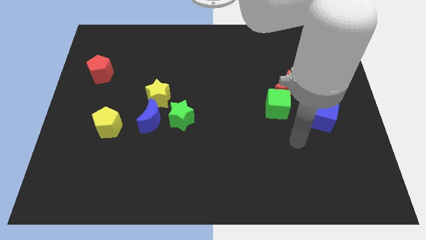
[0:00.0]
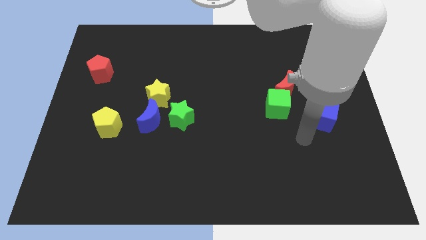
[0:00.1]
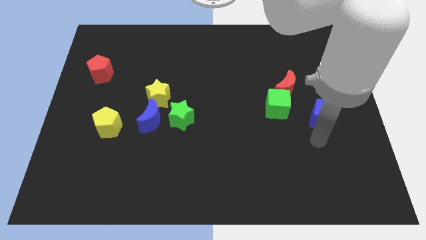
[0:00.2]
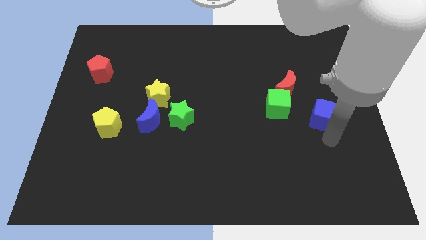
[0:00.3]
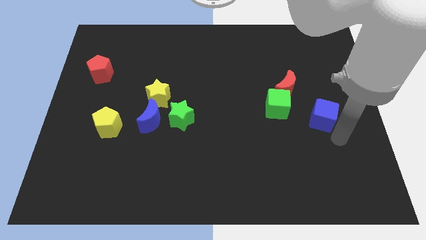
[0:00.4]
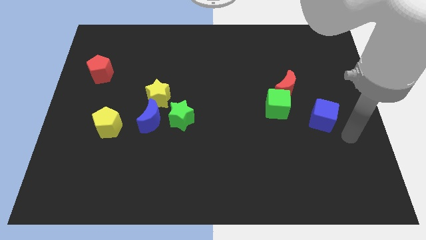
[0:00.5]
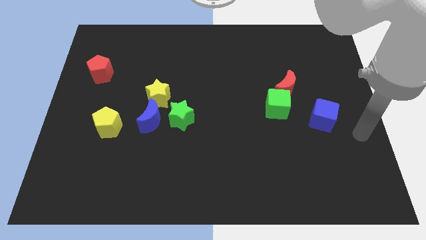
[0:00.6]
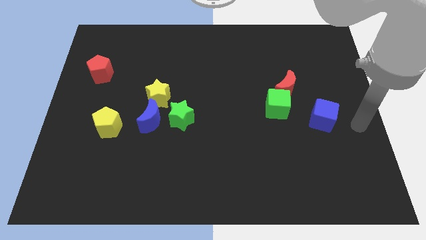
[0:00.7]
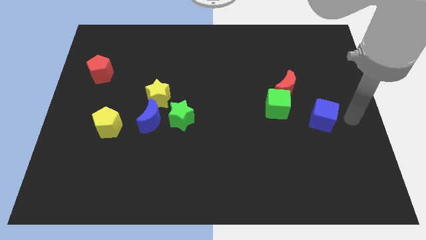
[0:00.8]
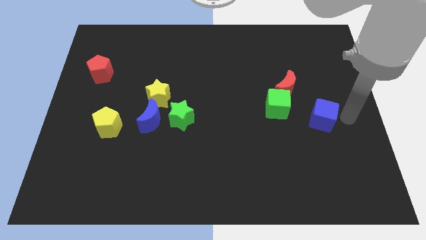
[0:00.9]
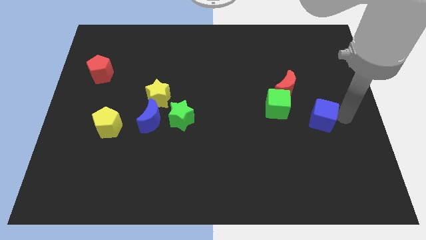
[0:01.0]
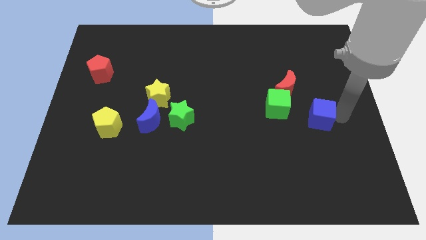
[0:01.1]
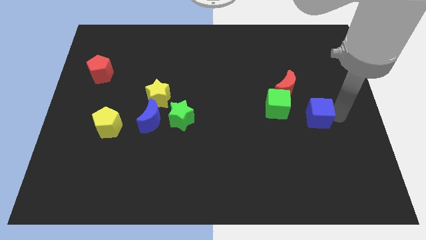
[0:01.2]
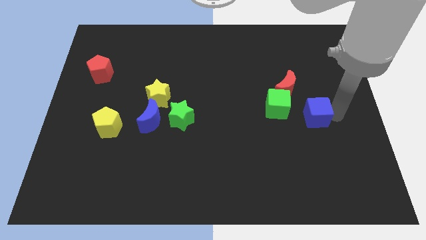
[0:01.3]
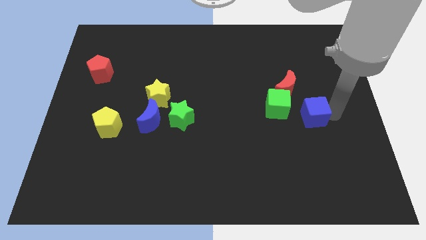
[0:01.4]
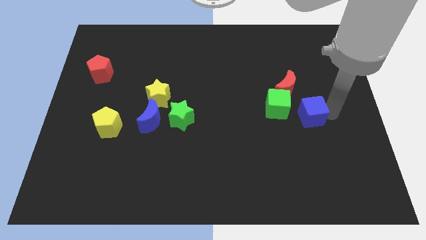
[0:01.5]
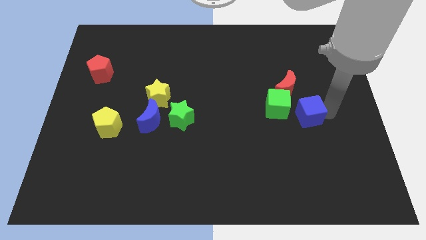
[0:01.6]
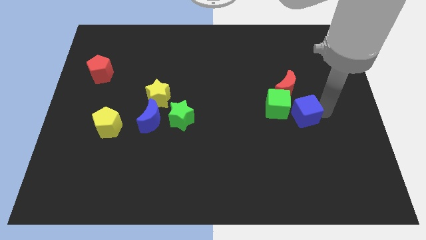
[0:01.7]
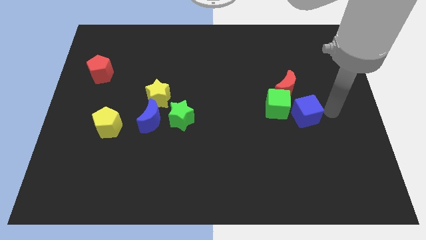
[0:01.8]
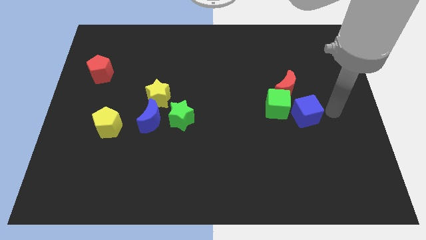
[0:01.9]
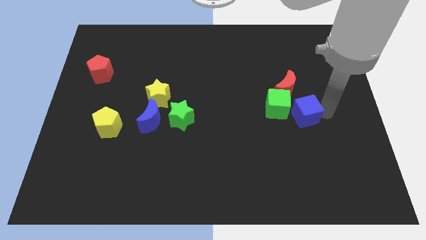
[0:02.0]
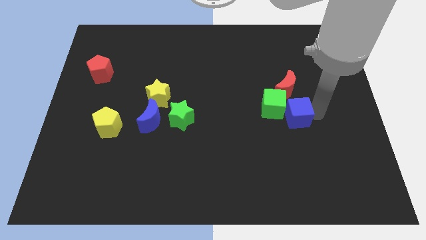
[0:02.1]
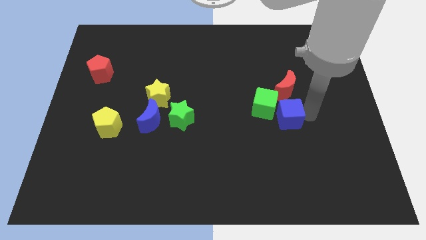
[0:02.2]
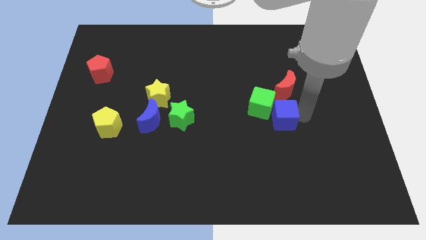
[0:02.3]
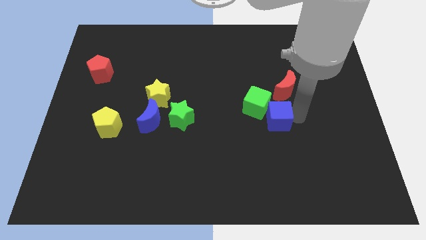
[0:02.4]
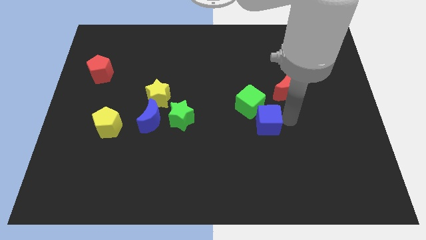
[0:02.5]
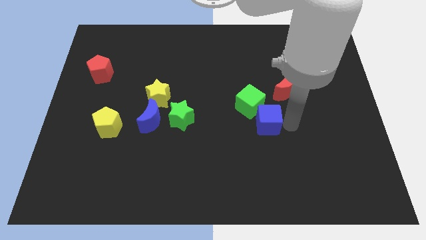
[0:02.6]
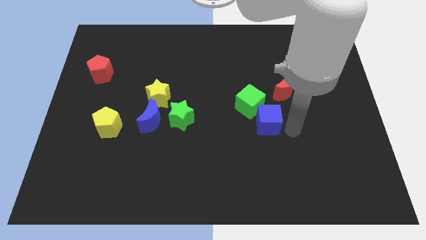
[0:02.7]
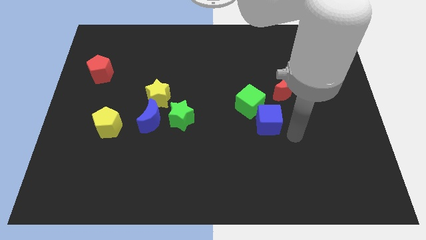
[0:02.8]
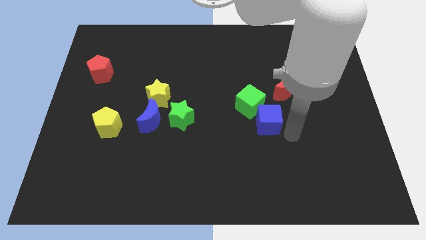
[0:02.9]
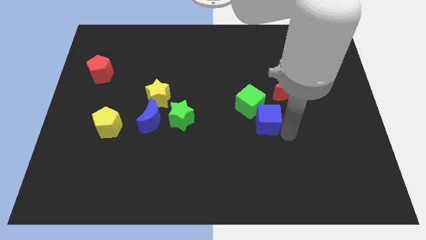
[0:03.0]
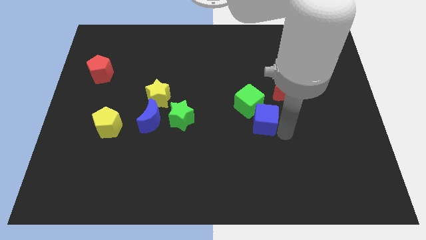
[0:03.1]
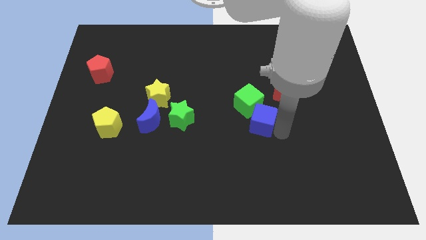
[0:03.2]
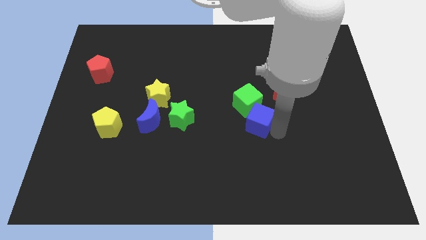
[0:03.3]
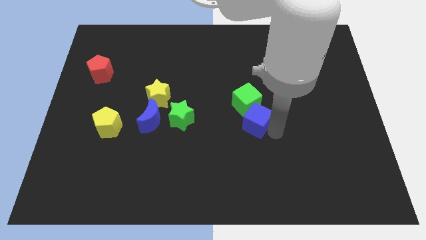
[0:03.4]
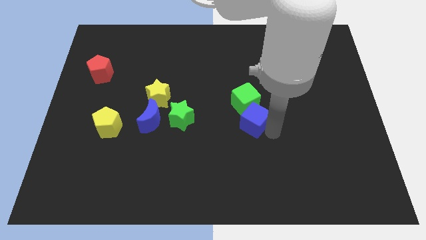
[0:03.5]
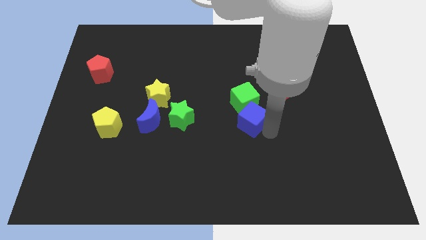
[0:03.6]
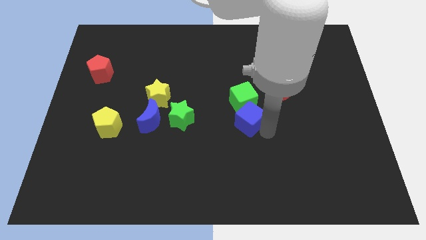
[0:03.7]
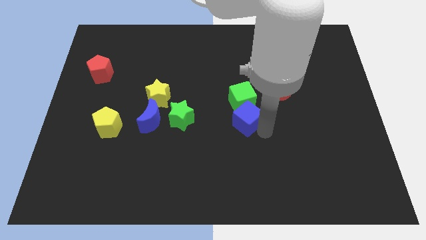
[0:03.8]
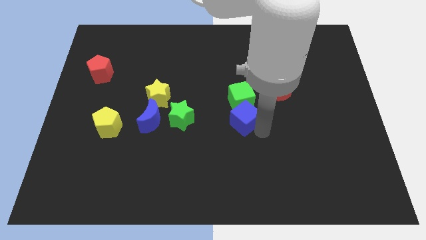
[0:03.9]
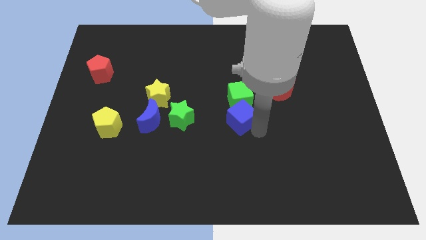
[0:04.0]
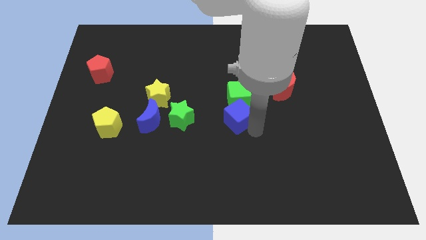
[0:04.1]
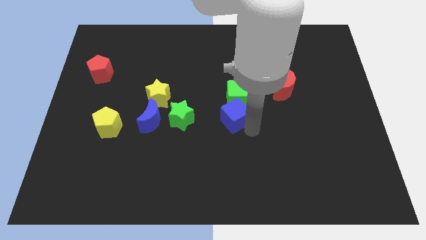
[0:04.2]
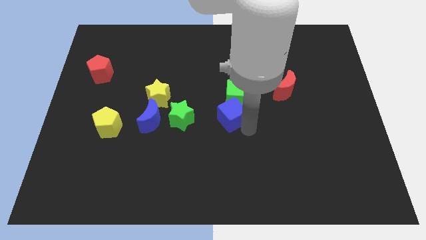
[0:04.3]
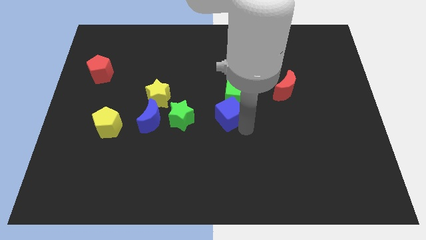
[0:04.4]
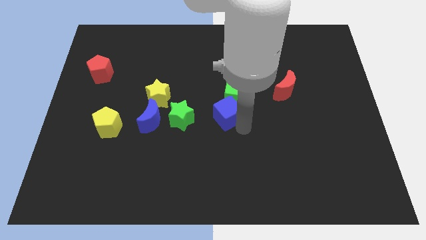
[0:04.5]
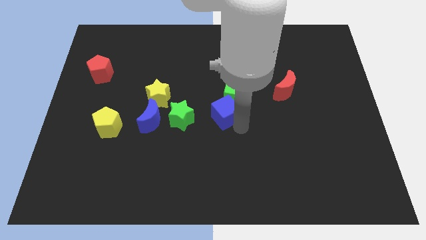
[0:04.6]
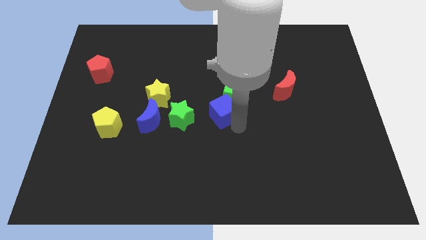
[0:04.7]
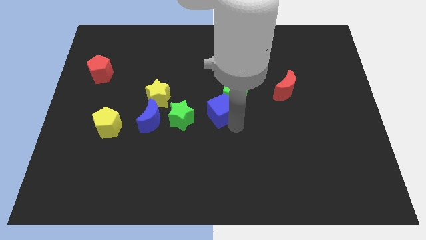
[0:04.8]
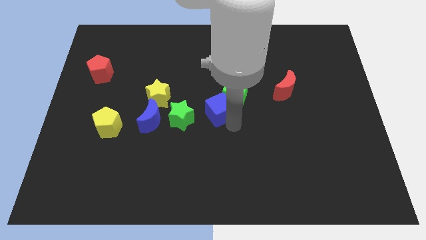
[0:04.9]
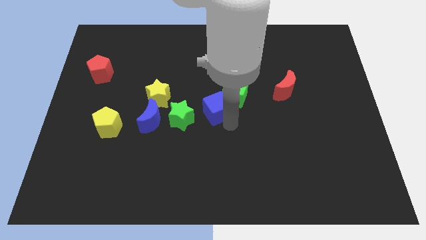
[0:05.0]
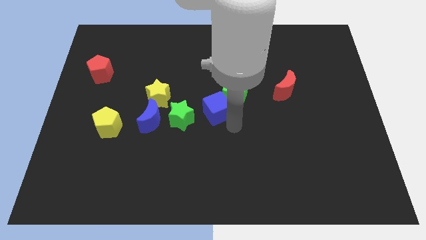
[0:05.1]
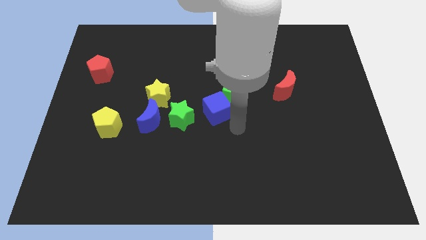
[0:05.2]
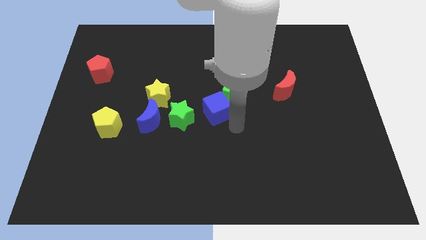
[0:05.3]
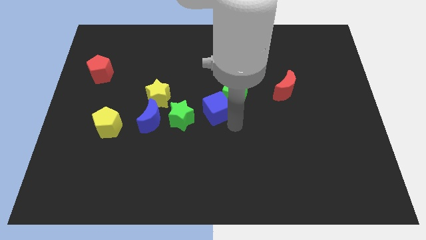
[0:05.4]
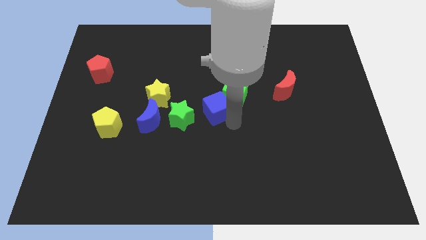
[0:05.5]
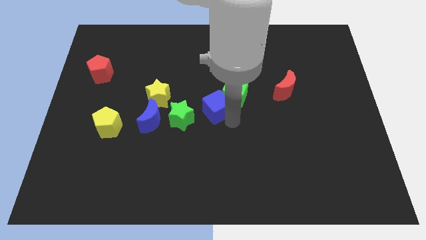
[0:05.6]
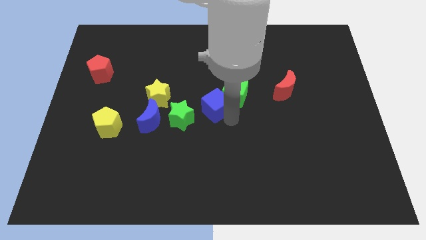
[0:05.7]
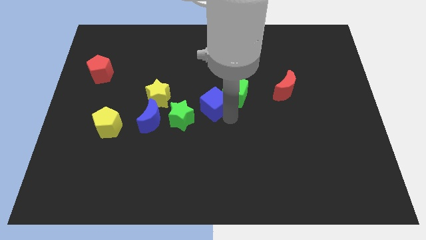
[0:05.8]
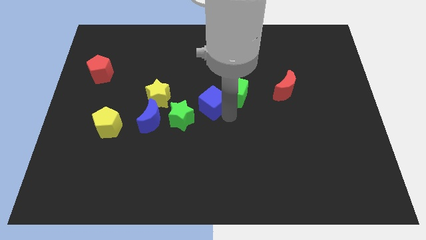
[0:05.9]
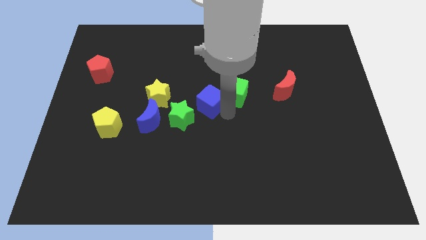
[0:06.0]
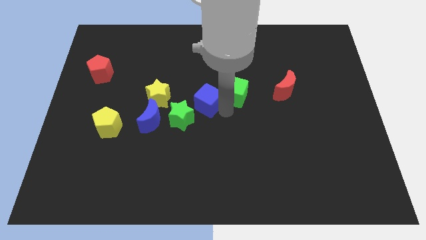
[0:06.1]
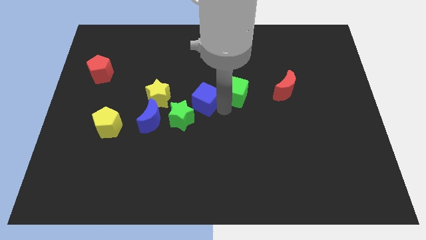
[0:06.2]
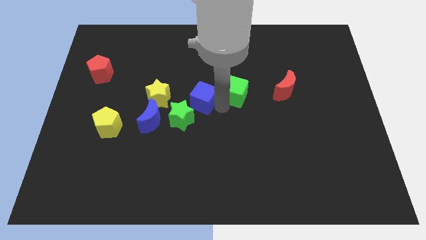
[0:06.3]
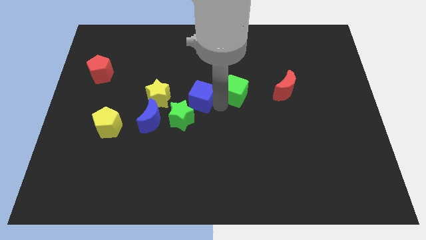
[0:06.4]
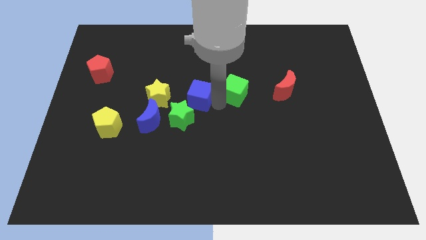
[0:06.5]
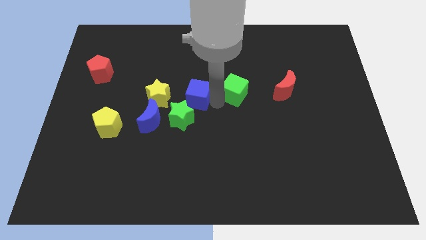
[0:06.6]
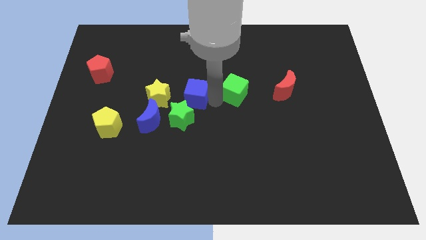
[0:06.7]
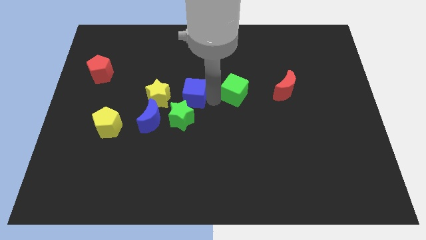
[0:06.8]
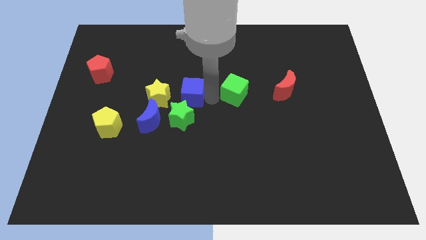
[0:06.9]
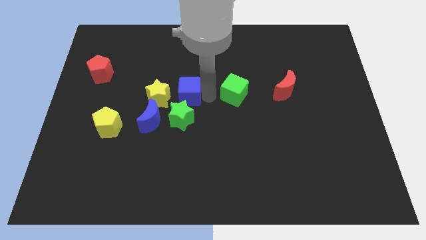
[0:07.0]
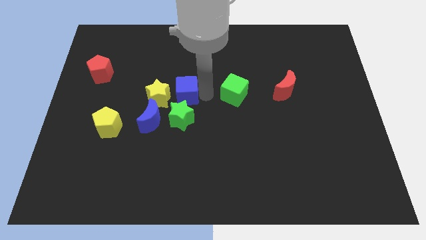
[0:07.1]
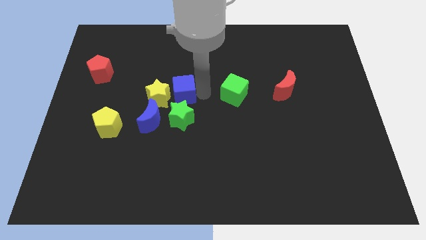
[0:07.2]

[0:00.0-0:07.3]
move the blue cube next to the yellow star

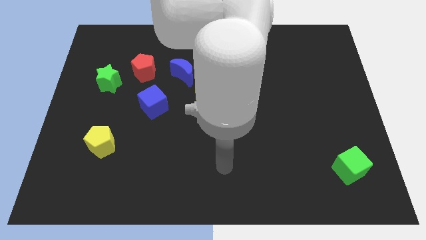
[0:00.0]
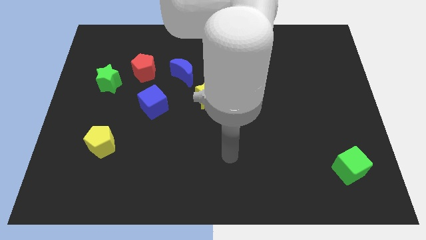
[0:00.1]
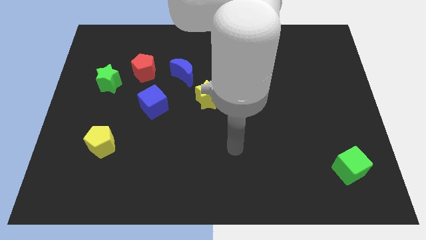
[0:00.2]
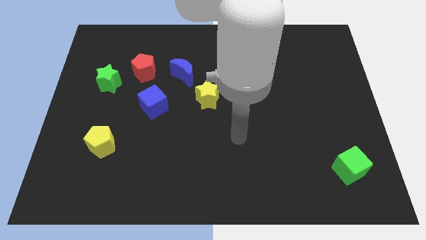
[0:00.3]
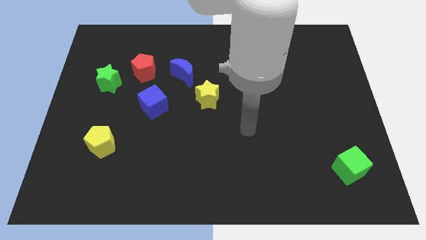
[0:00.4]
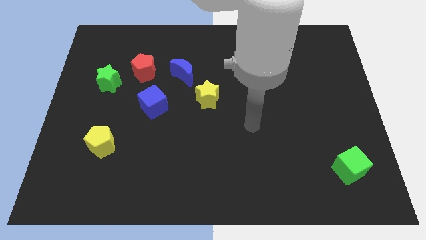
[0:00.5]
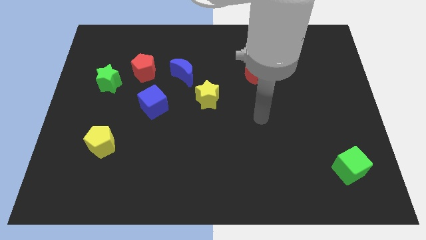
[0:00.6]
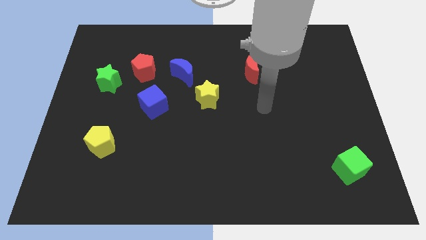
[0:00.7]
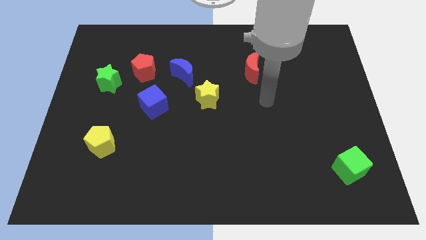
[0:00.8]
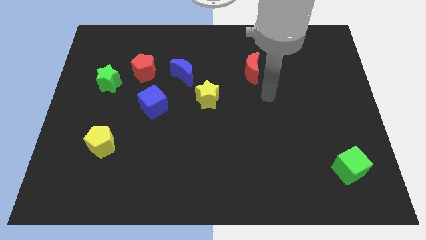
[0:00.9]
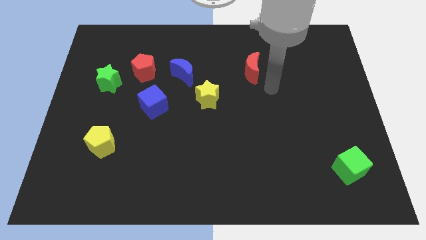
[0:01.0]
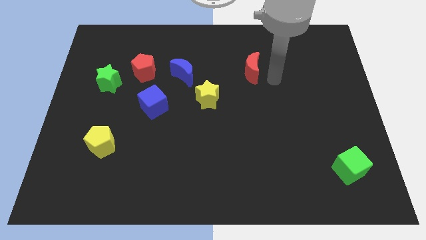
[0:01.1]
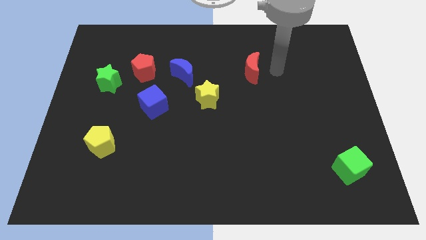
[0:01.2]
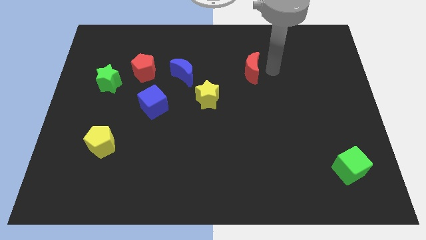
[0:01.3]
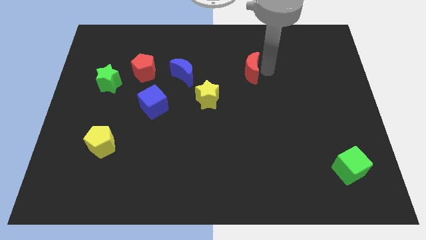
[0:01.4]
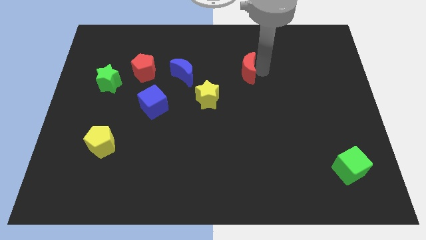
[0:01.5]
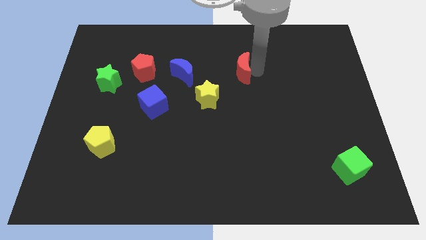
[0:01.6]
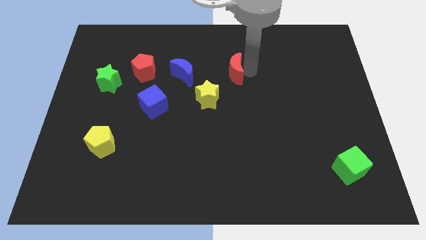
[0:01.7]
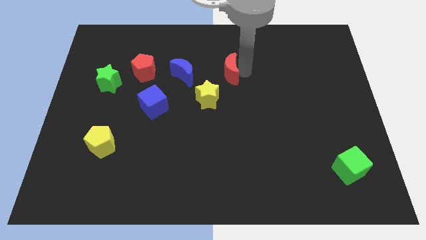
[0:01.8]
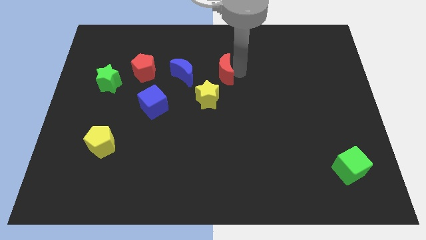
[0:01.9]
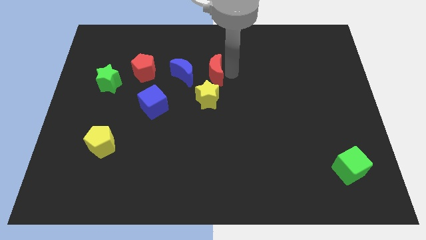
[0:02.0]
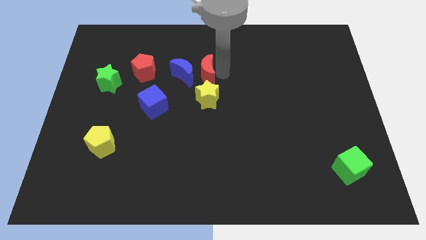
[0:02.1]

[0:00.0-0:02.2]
put the red moon towards the blue moon
